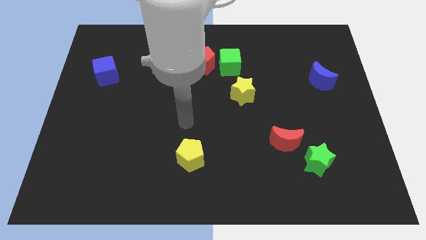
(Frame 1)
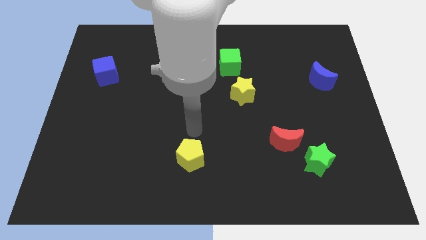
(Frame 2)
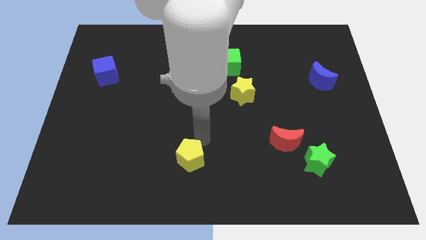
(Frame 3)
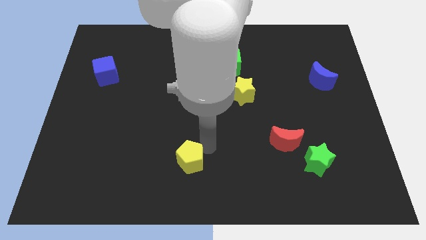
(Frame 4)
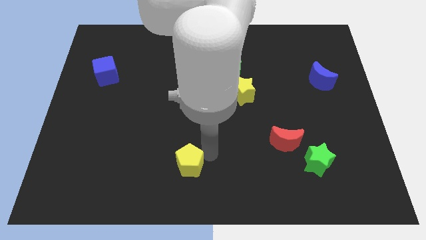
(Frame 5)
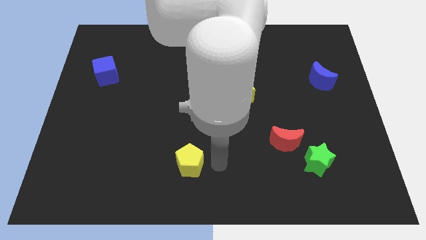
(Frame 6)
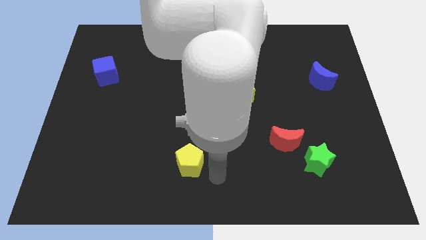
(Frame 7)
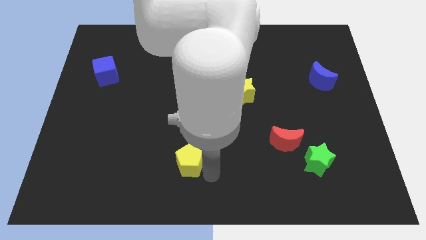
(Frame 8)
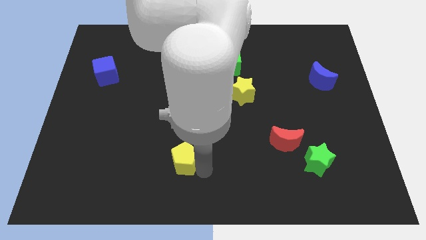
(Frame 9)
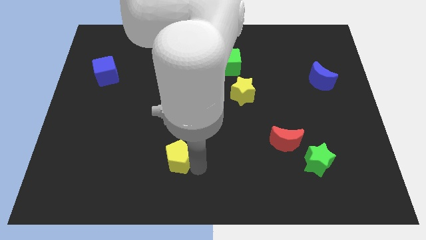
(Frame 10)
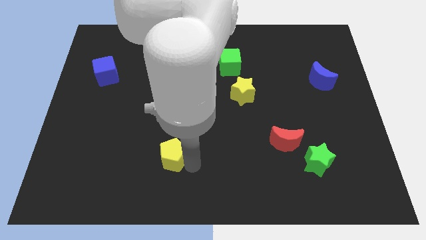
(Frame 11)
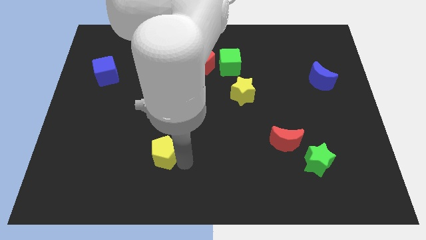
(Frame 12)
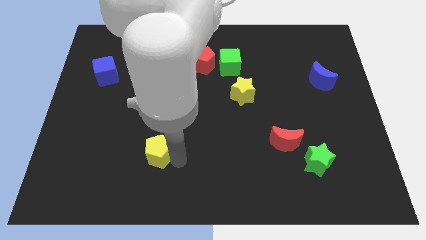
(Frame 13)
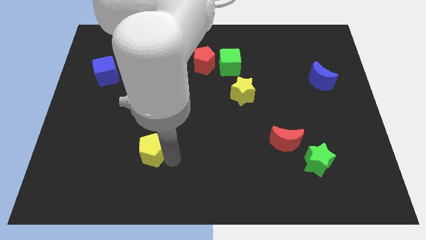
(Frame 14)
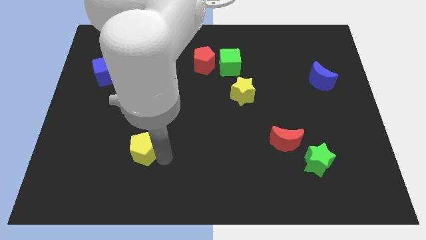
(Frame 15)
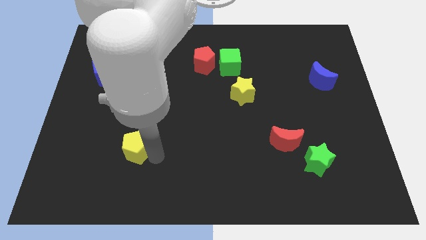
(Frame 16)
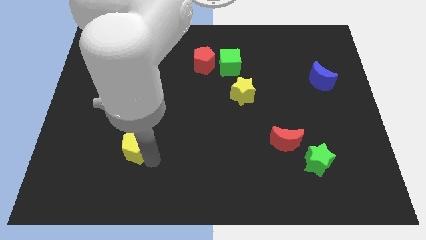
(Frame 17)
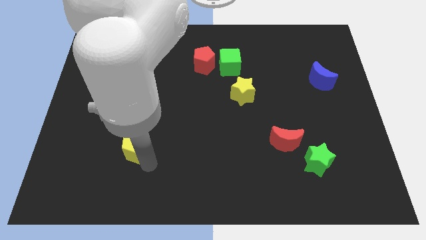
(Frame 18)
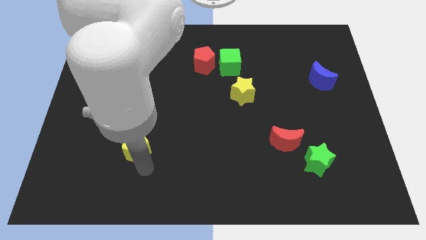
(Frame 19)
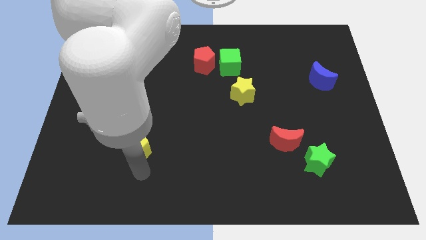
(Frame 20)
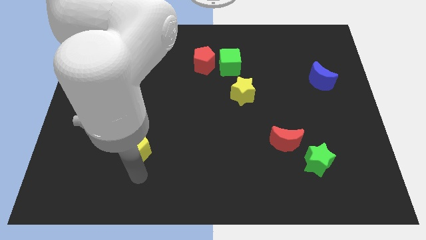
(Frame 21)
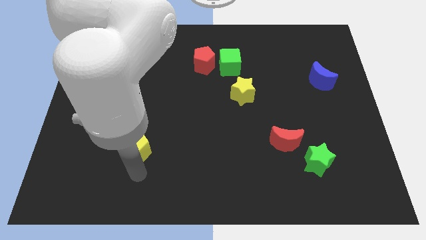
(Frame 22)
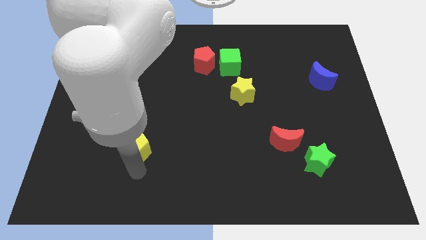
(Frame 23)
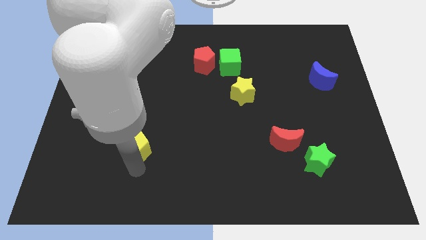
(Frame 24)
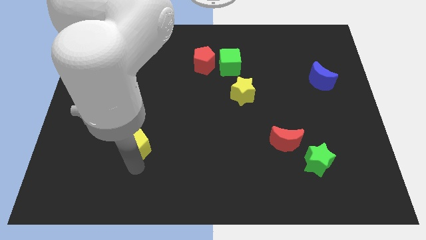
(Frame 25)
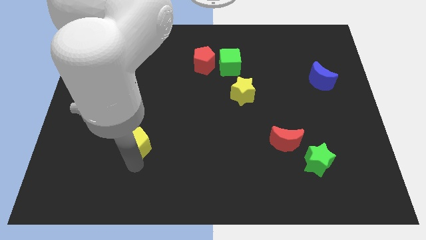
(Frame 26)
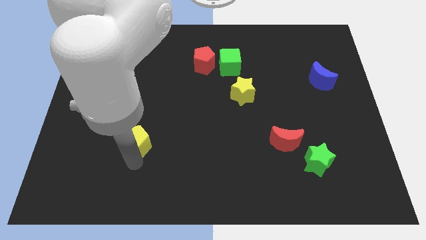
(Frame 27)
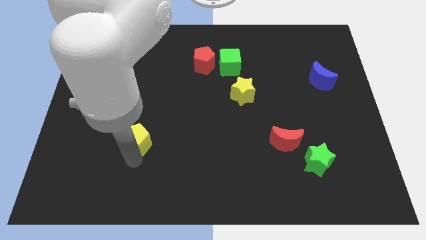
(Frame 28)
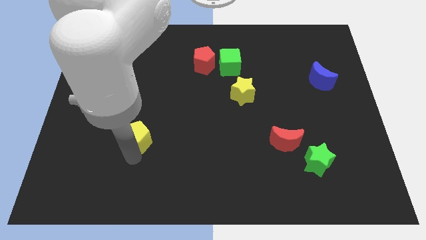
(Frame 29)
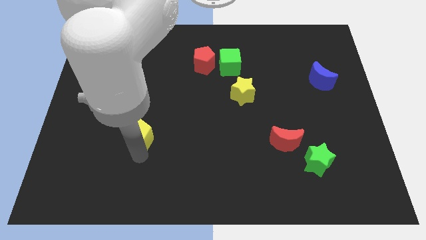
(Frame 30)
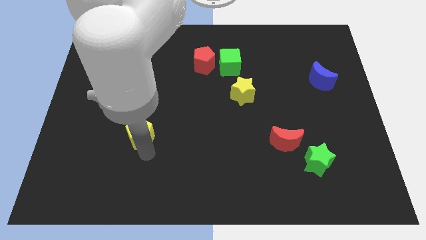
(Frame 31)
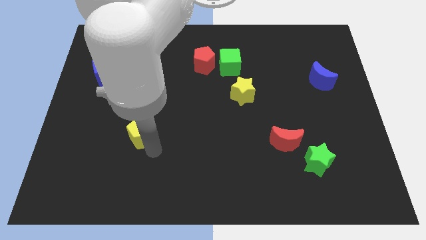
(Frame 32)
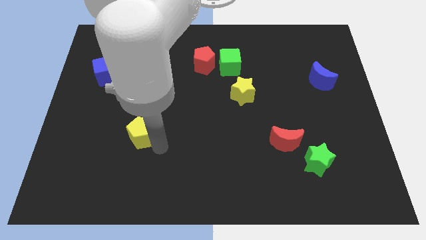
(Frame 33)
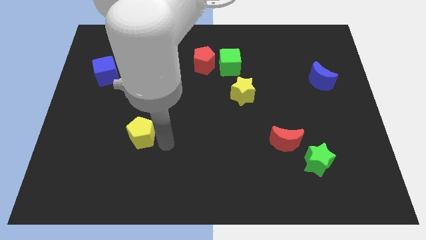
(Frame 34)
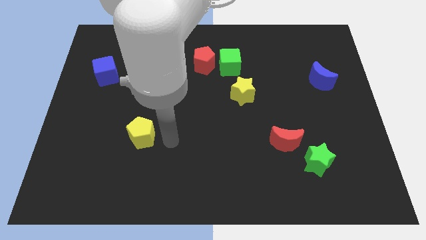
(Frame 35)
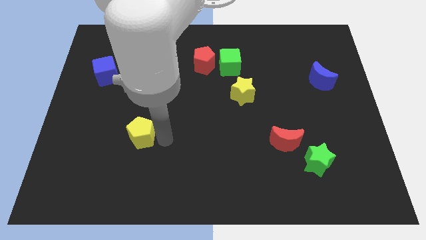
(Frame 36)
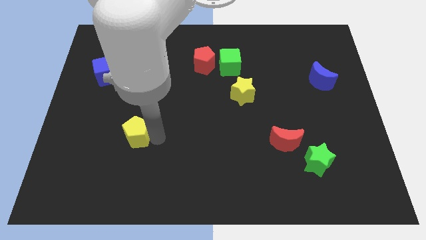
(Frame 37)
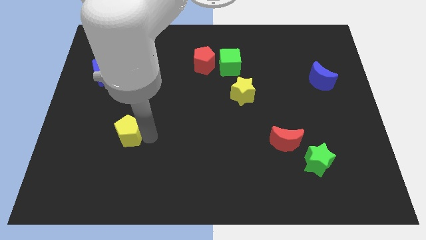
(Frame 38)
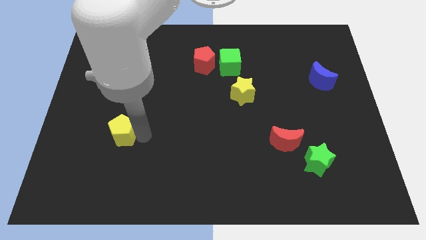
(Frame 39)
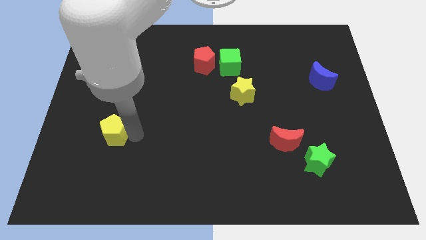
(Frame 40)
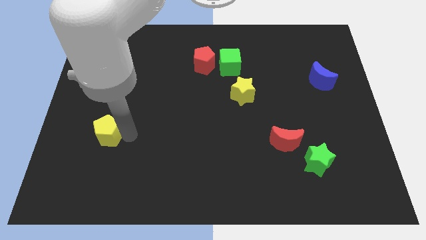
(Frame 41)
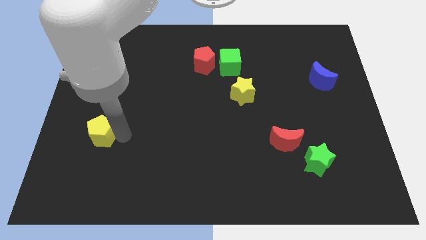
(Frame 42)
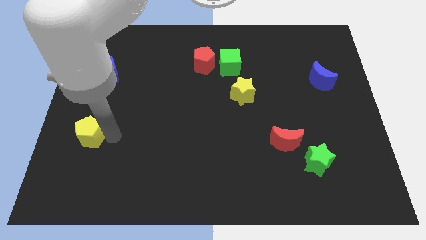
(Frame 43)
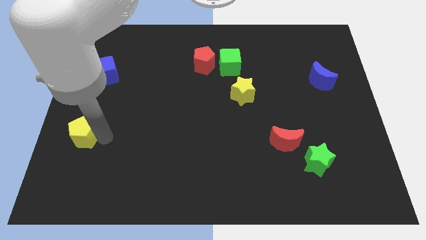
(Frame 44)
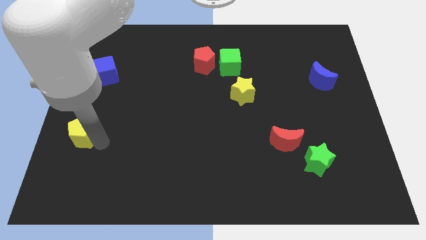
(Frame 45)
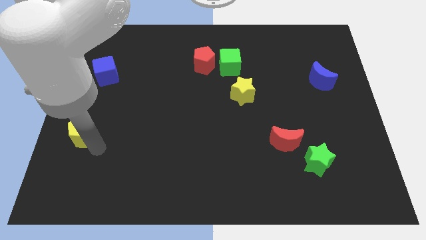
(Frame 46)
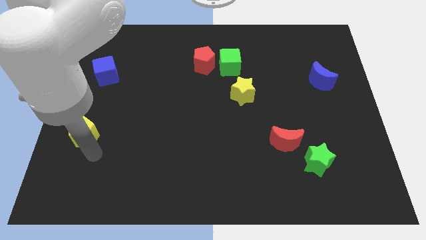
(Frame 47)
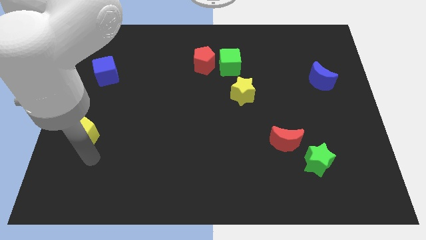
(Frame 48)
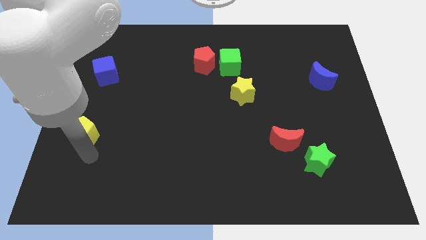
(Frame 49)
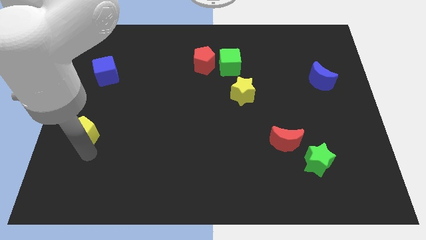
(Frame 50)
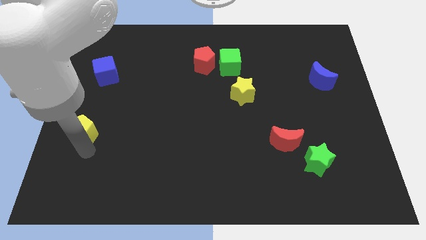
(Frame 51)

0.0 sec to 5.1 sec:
move the yellow pentagon to the center left

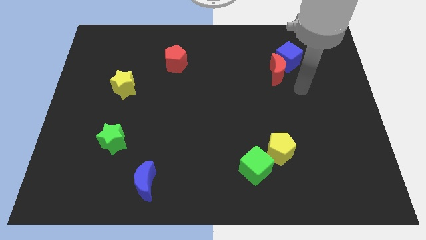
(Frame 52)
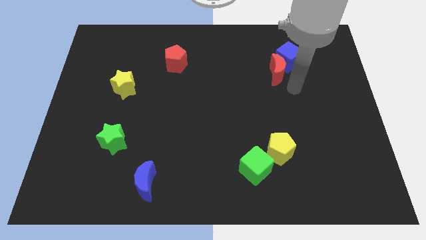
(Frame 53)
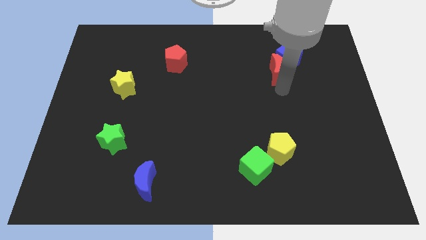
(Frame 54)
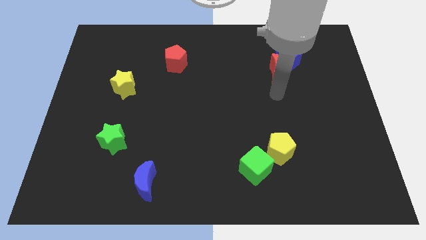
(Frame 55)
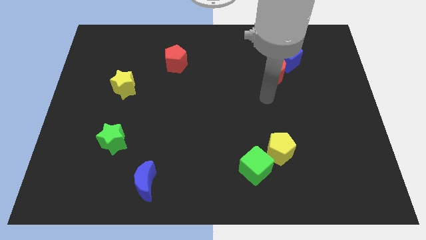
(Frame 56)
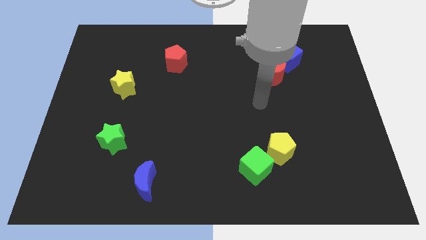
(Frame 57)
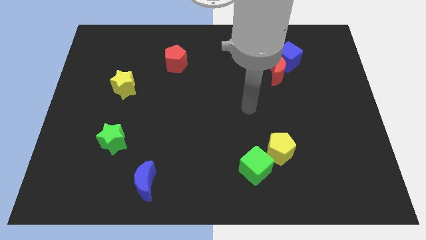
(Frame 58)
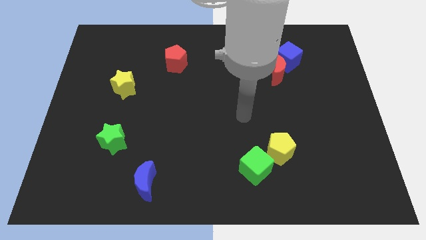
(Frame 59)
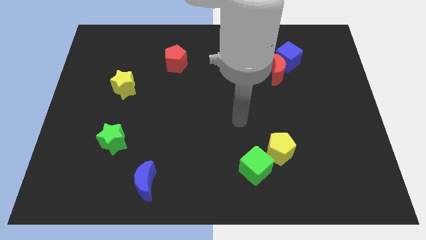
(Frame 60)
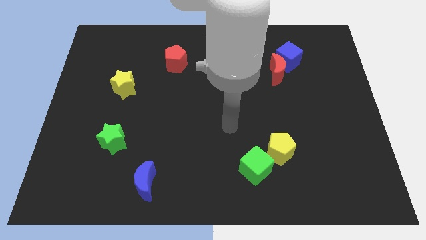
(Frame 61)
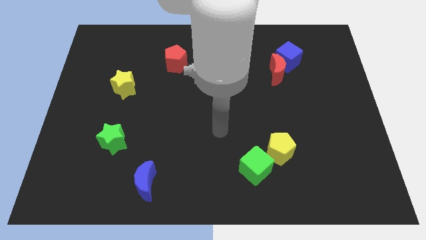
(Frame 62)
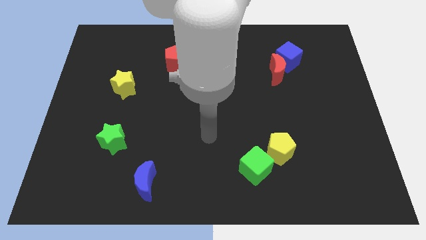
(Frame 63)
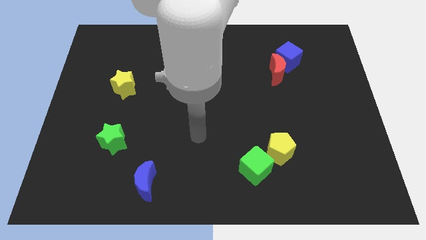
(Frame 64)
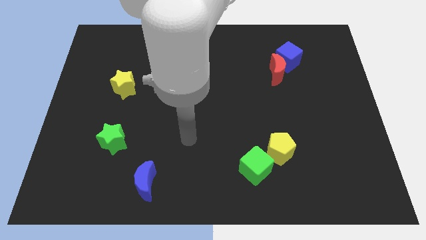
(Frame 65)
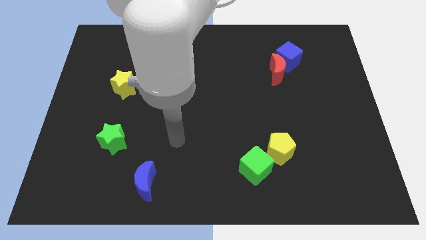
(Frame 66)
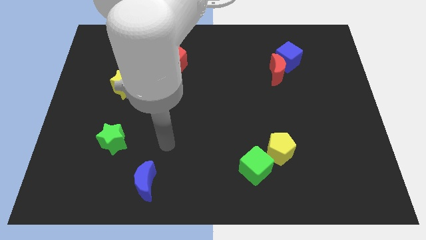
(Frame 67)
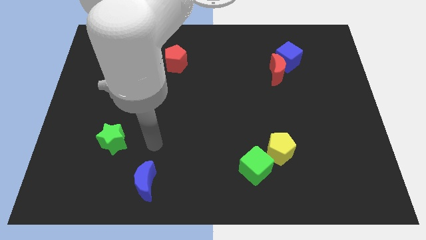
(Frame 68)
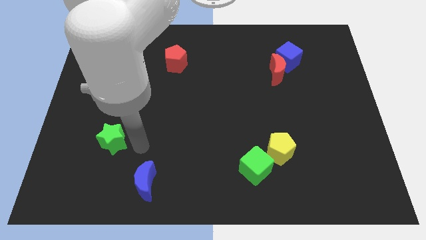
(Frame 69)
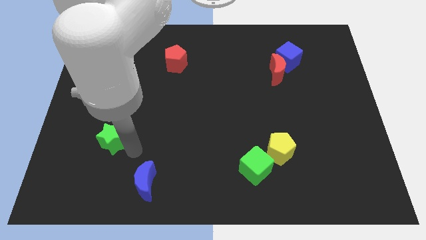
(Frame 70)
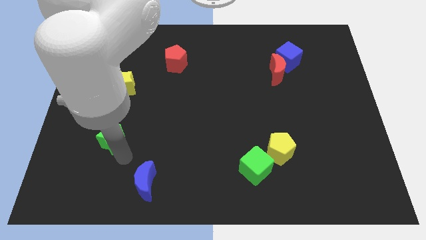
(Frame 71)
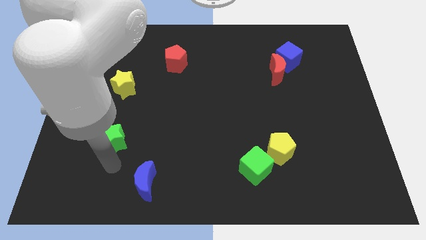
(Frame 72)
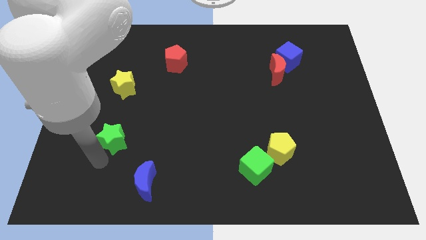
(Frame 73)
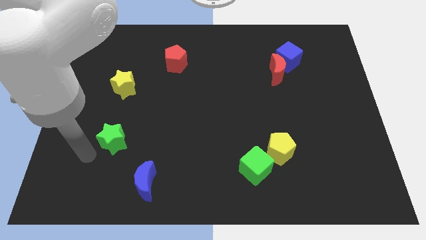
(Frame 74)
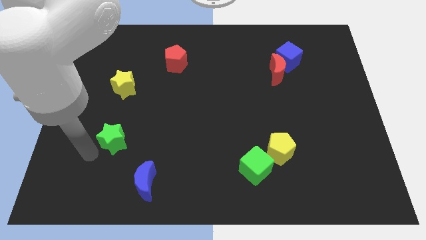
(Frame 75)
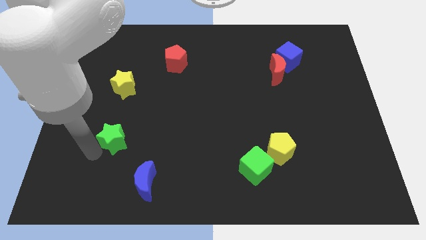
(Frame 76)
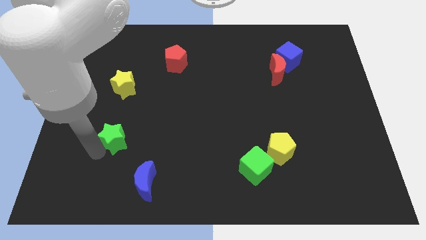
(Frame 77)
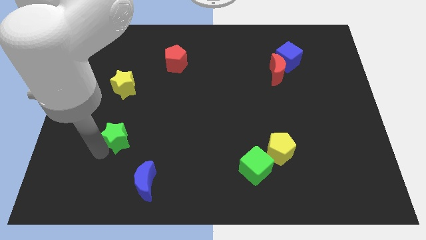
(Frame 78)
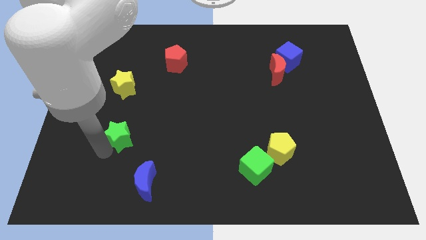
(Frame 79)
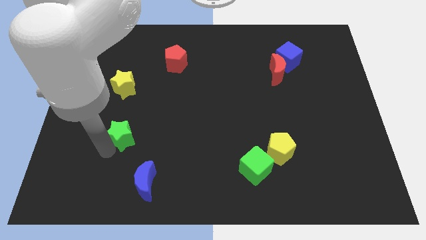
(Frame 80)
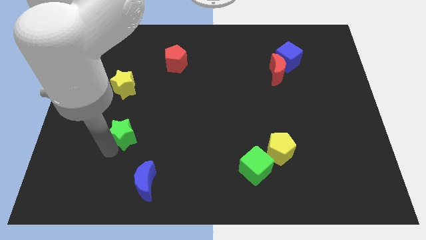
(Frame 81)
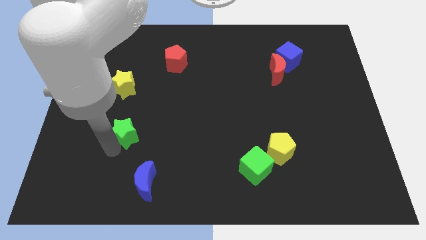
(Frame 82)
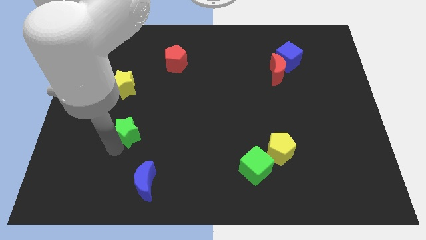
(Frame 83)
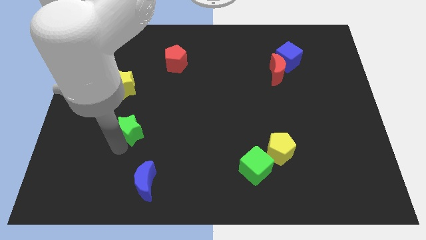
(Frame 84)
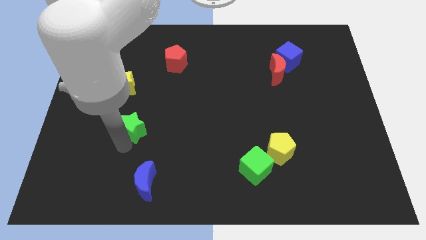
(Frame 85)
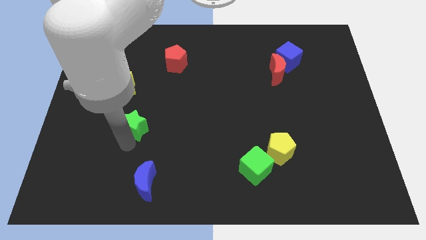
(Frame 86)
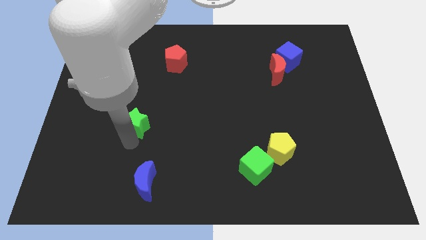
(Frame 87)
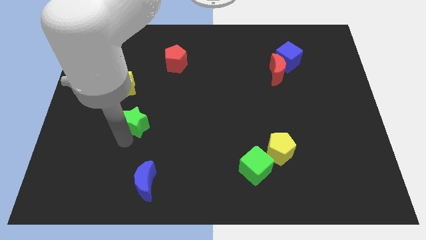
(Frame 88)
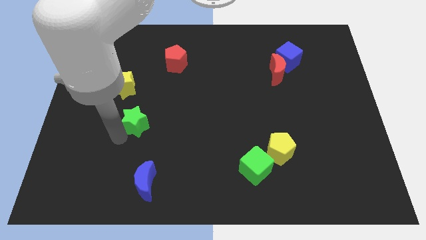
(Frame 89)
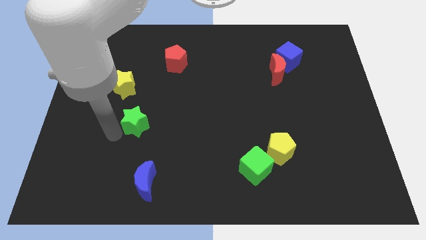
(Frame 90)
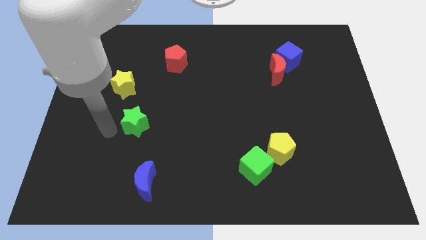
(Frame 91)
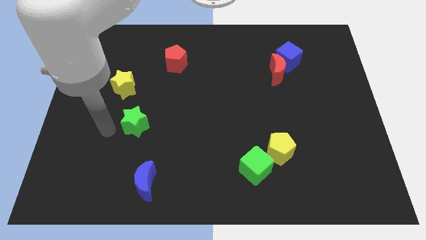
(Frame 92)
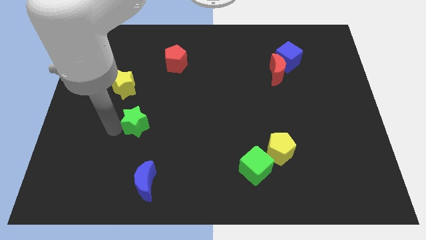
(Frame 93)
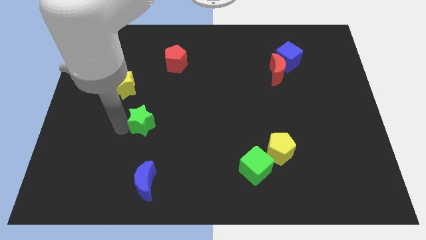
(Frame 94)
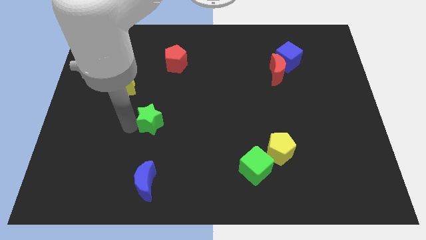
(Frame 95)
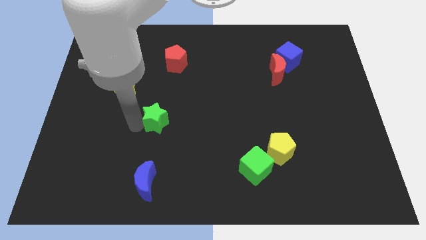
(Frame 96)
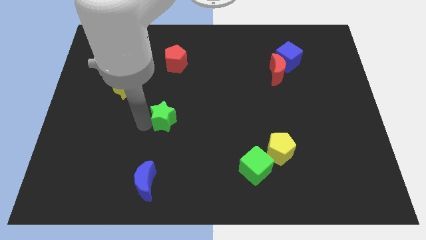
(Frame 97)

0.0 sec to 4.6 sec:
put the green star to the middle
